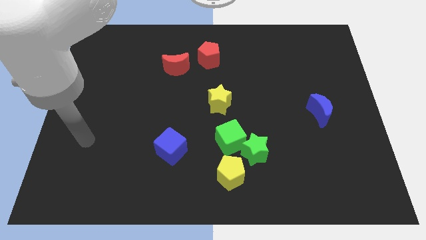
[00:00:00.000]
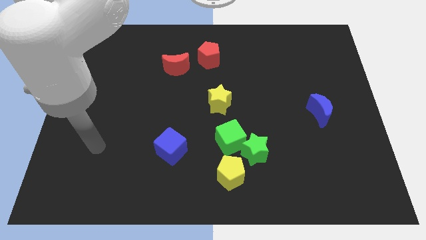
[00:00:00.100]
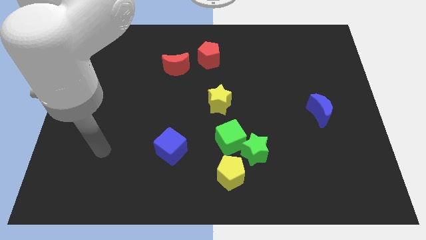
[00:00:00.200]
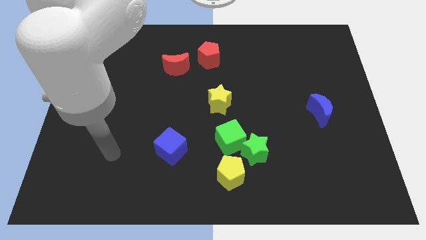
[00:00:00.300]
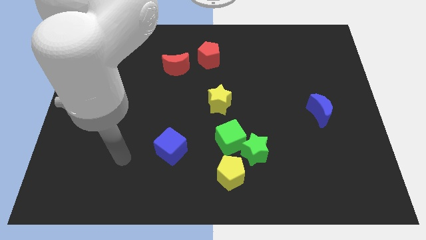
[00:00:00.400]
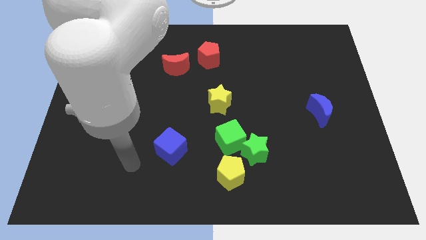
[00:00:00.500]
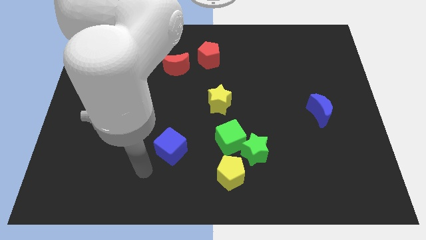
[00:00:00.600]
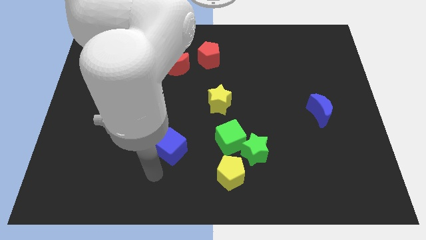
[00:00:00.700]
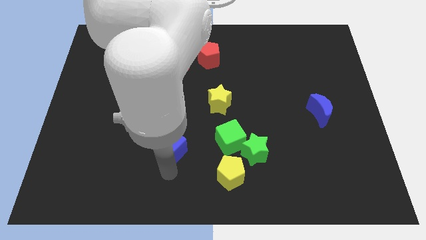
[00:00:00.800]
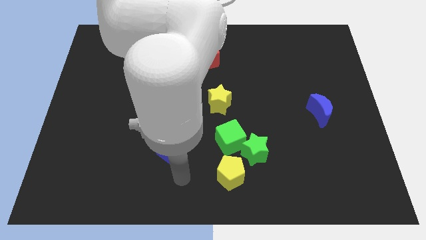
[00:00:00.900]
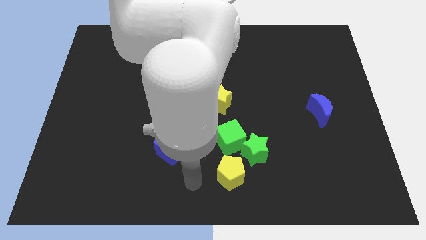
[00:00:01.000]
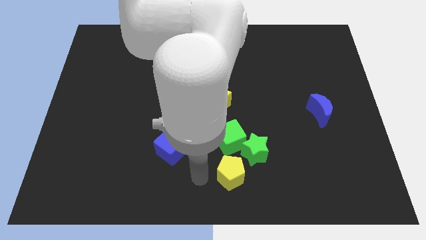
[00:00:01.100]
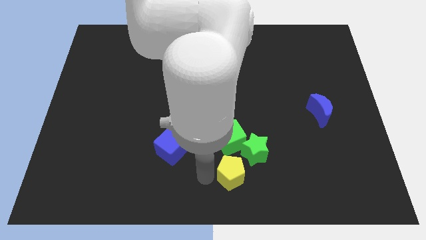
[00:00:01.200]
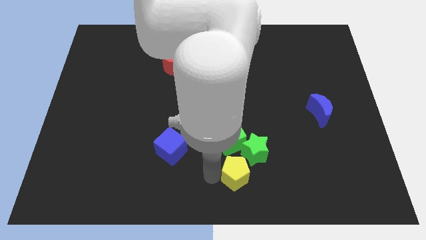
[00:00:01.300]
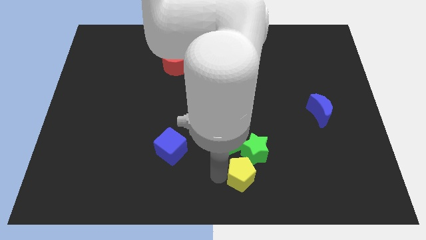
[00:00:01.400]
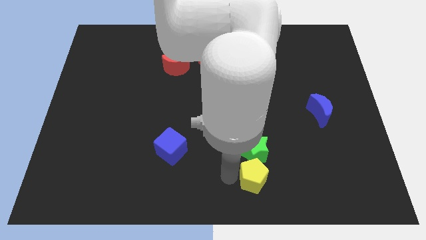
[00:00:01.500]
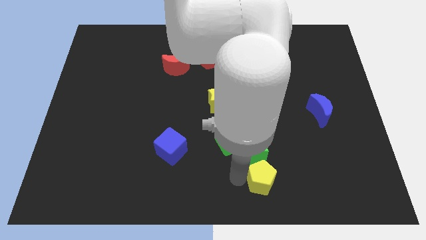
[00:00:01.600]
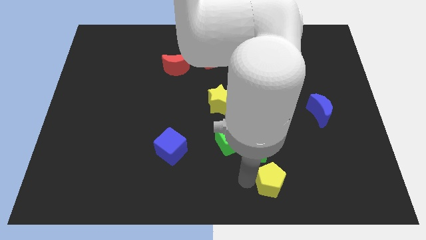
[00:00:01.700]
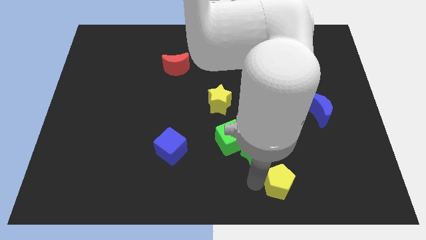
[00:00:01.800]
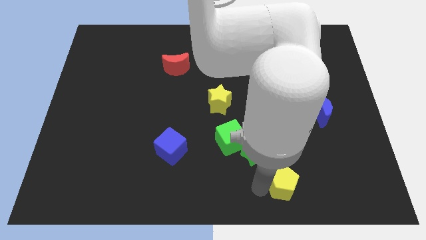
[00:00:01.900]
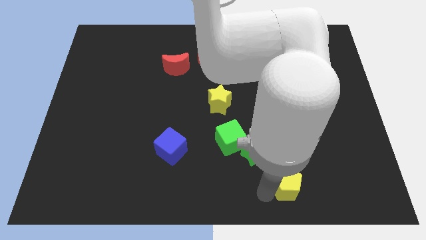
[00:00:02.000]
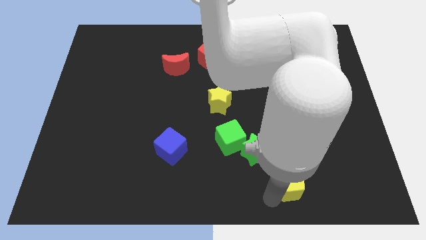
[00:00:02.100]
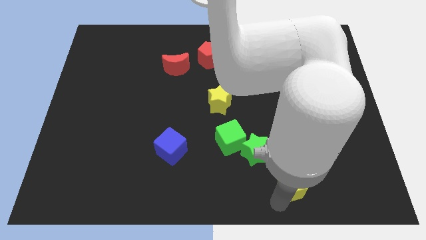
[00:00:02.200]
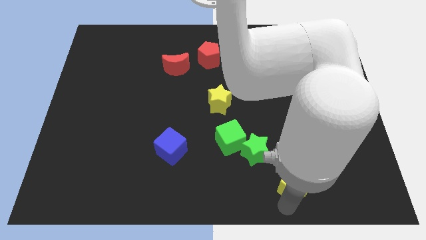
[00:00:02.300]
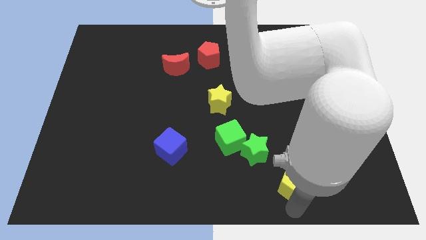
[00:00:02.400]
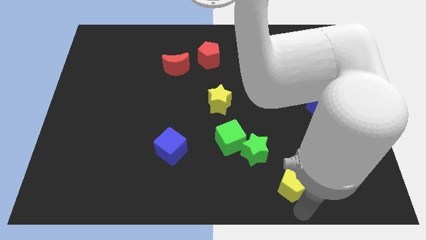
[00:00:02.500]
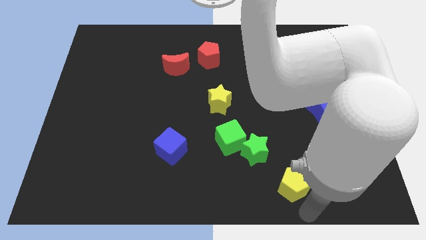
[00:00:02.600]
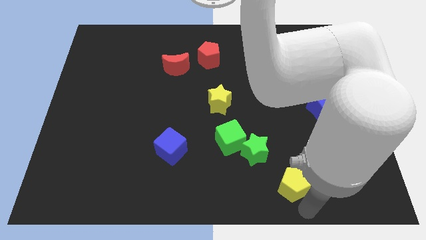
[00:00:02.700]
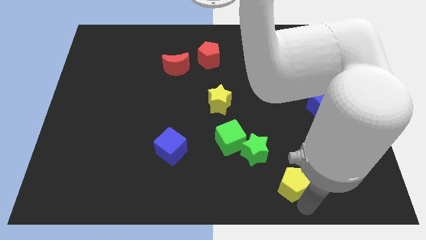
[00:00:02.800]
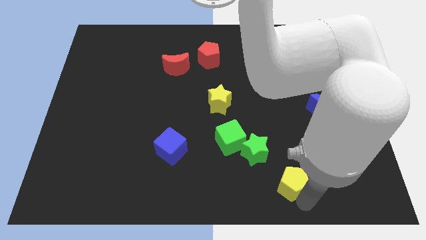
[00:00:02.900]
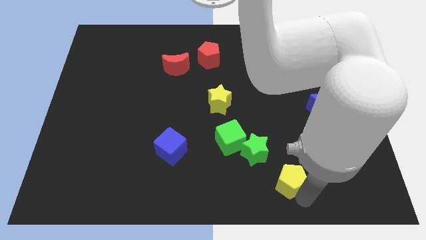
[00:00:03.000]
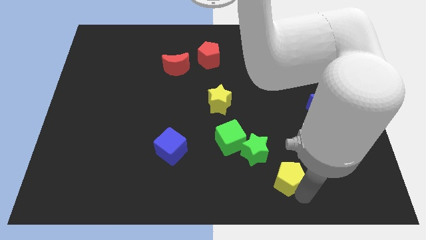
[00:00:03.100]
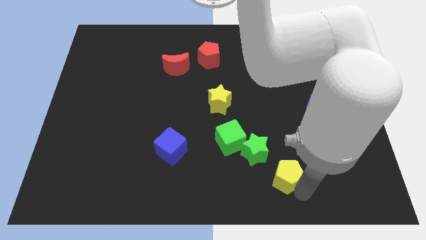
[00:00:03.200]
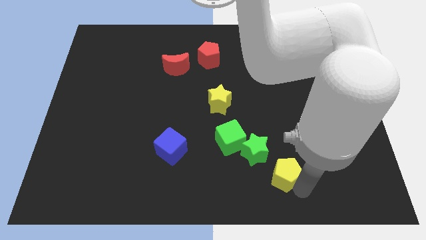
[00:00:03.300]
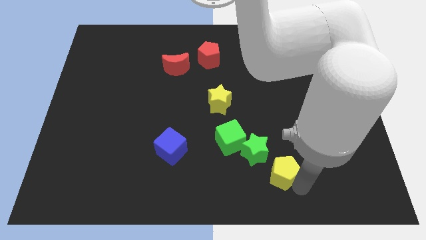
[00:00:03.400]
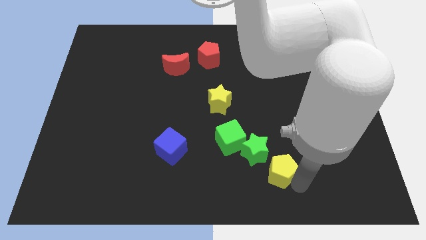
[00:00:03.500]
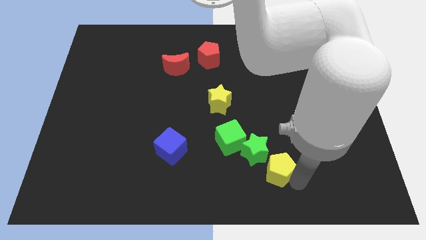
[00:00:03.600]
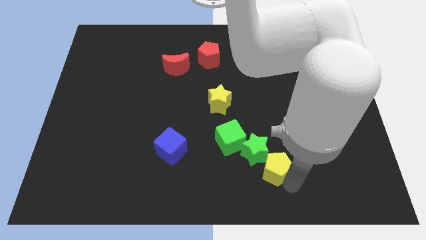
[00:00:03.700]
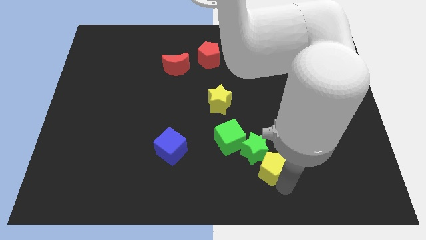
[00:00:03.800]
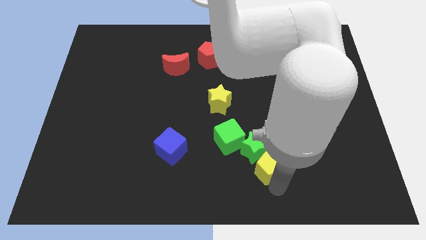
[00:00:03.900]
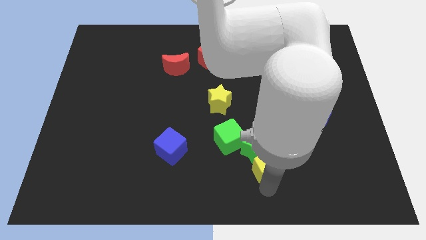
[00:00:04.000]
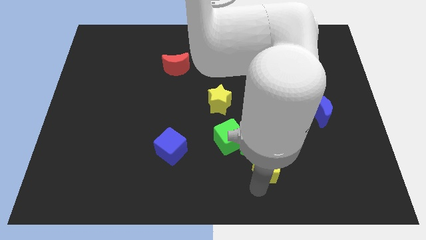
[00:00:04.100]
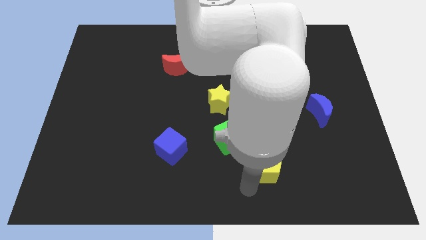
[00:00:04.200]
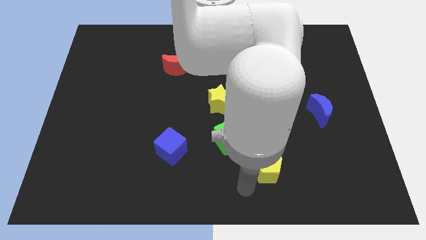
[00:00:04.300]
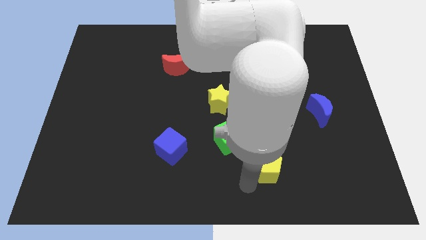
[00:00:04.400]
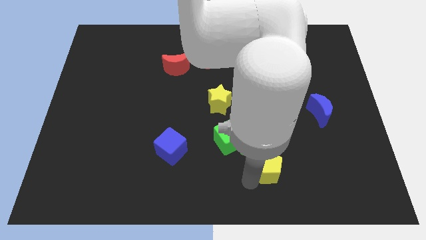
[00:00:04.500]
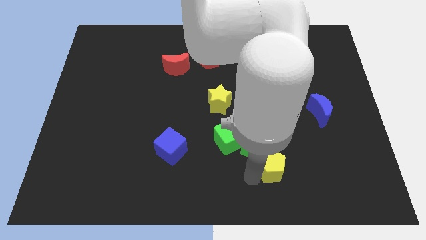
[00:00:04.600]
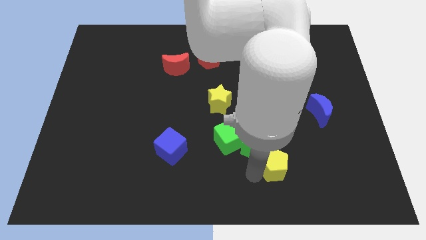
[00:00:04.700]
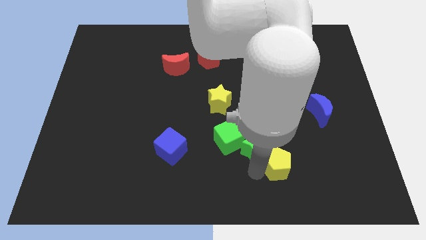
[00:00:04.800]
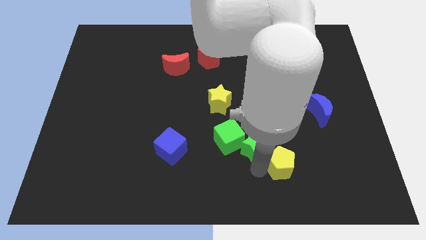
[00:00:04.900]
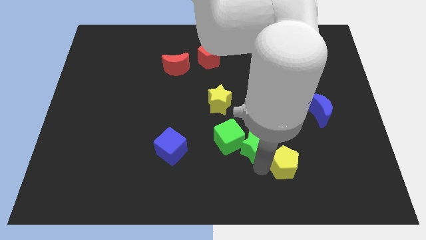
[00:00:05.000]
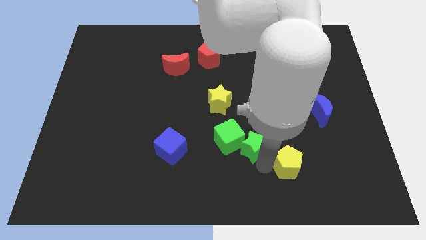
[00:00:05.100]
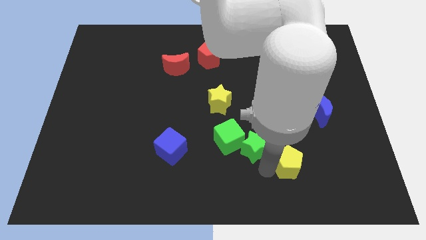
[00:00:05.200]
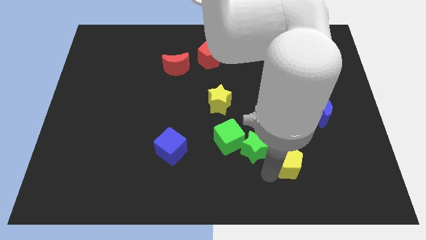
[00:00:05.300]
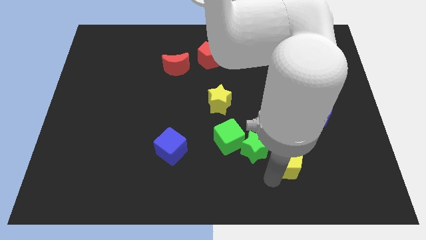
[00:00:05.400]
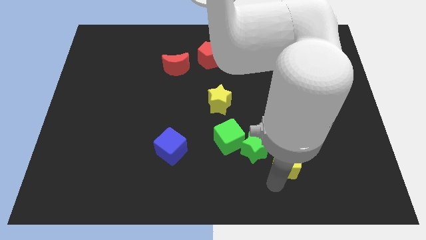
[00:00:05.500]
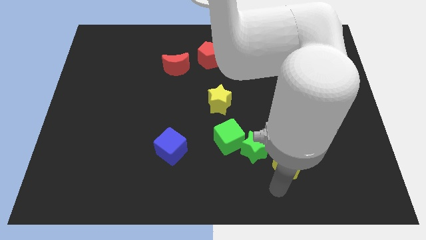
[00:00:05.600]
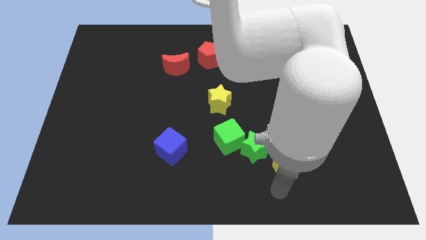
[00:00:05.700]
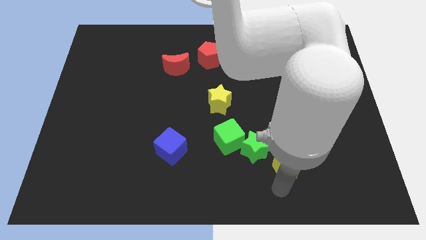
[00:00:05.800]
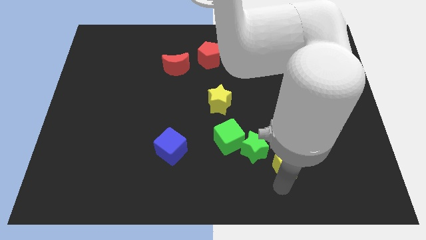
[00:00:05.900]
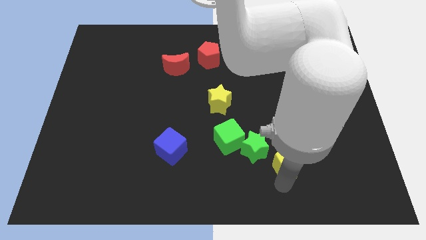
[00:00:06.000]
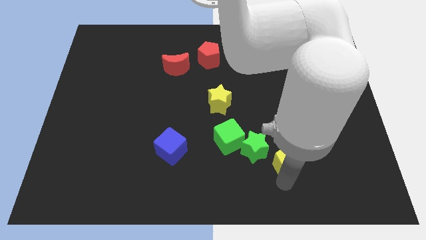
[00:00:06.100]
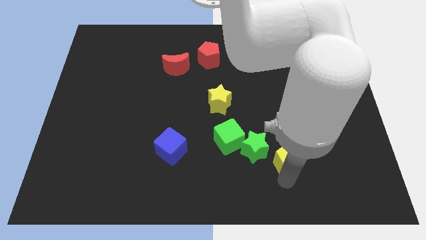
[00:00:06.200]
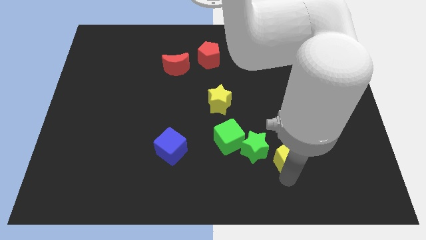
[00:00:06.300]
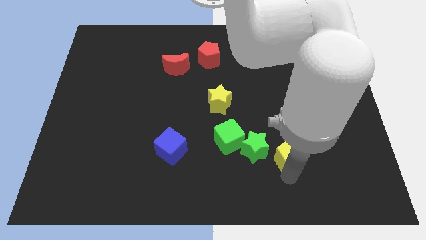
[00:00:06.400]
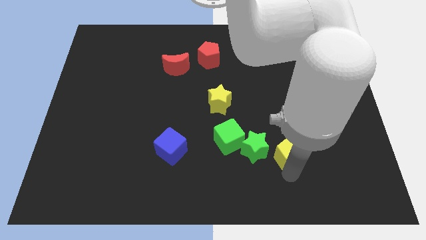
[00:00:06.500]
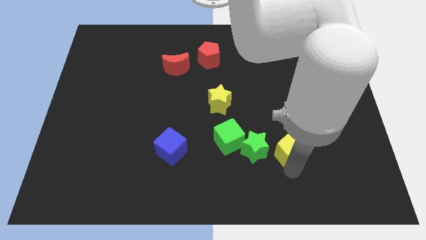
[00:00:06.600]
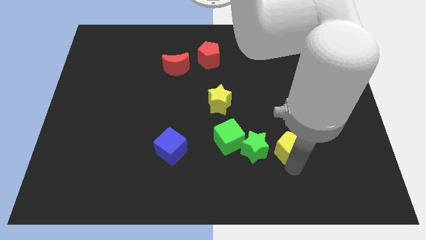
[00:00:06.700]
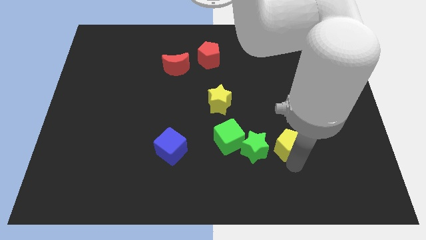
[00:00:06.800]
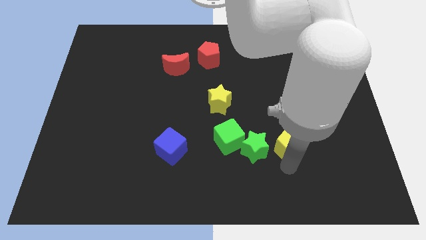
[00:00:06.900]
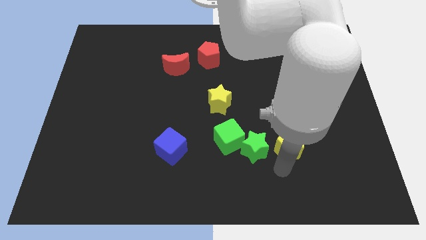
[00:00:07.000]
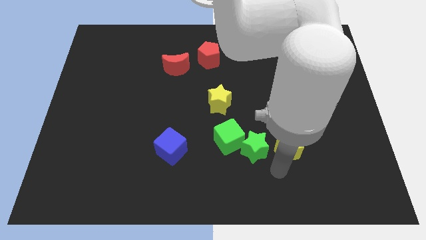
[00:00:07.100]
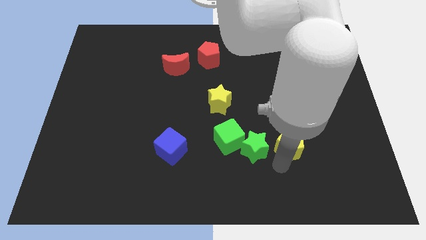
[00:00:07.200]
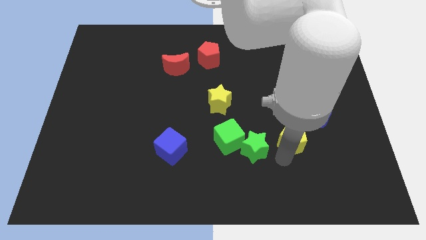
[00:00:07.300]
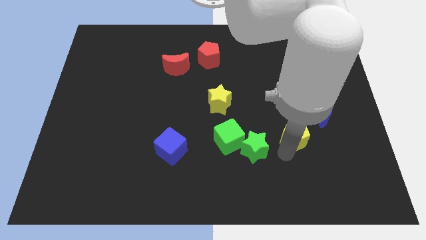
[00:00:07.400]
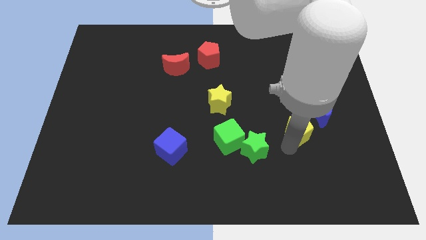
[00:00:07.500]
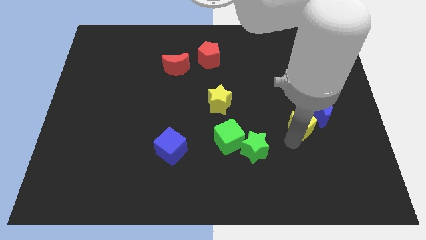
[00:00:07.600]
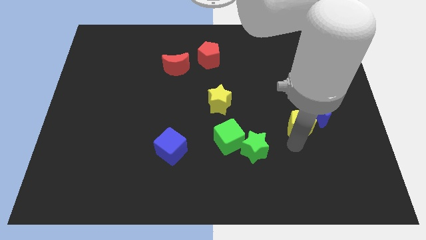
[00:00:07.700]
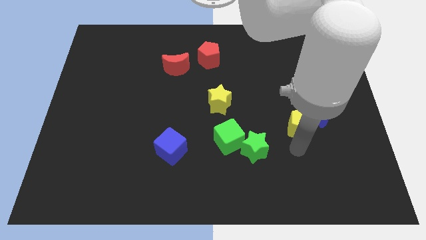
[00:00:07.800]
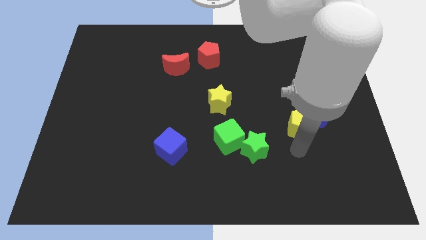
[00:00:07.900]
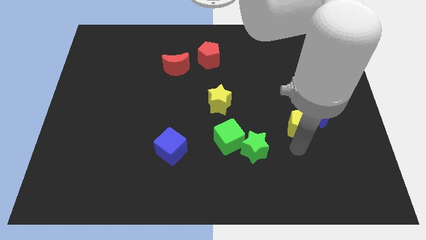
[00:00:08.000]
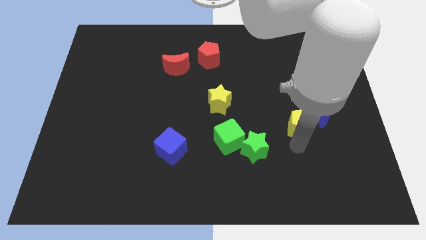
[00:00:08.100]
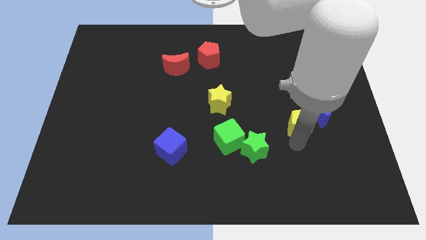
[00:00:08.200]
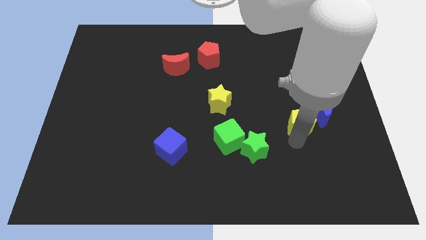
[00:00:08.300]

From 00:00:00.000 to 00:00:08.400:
slide the yellow pentagon diagonally upwards and to the right
